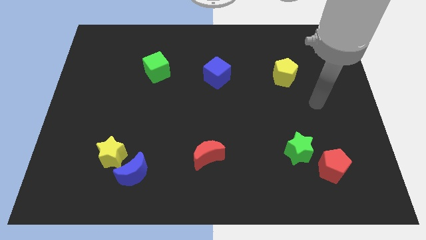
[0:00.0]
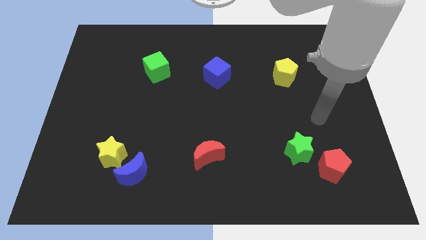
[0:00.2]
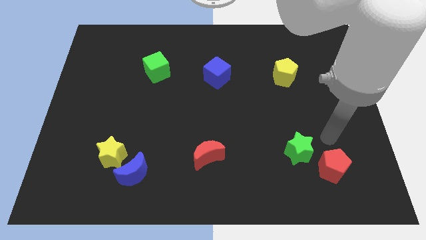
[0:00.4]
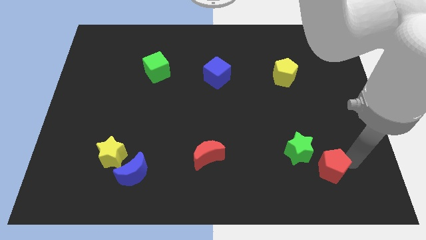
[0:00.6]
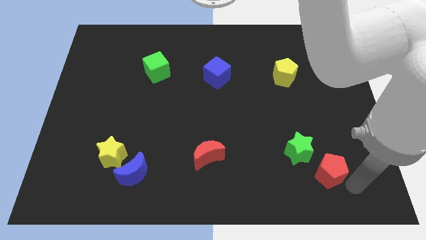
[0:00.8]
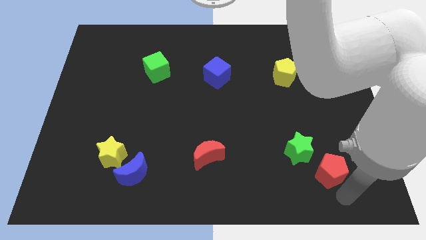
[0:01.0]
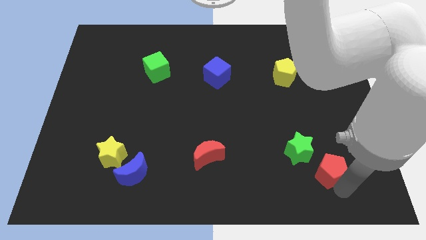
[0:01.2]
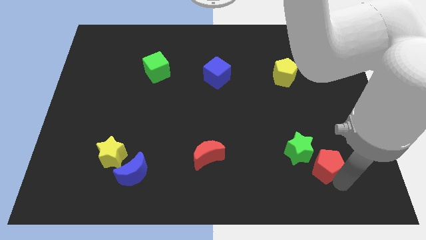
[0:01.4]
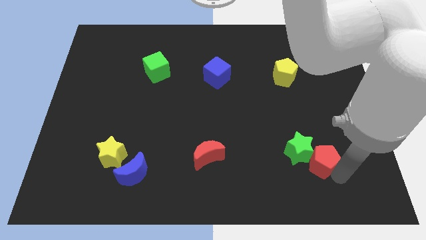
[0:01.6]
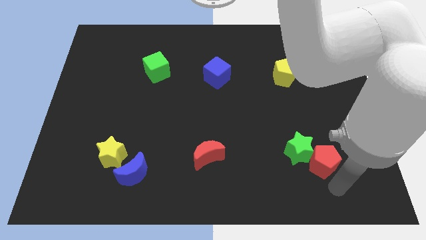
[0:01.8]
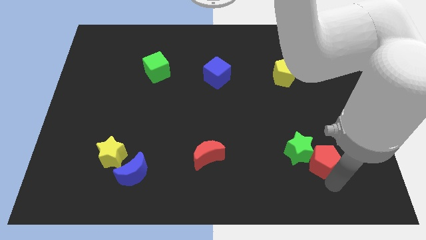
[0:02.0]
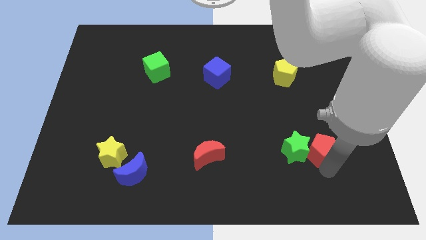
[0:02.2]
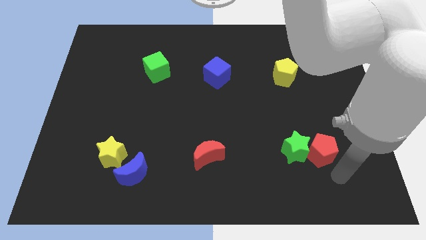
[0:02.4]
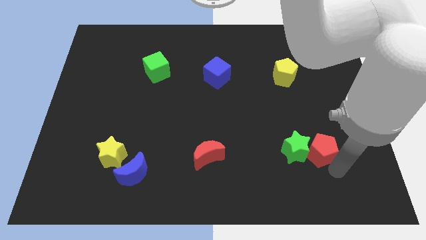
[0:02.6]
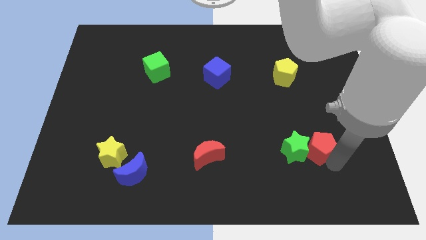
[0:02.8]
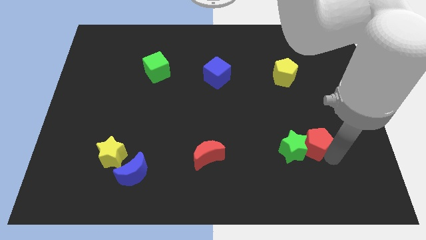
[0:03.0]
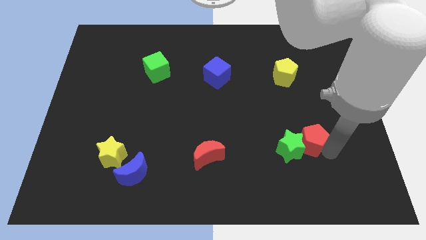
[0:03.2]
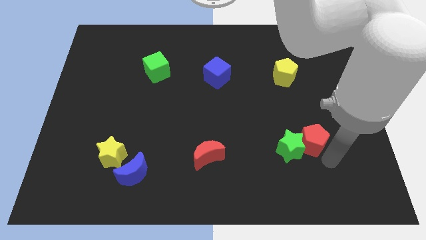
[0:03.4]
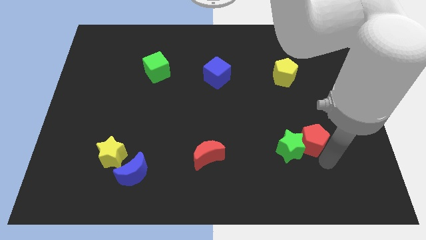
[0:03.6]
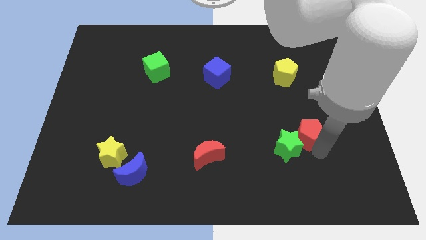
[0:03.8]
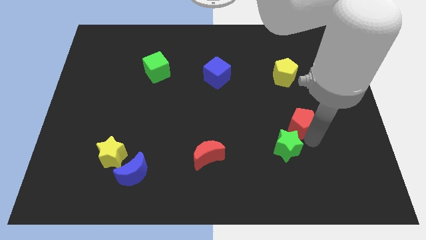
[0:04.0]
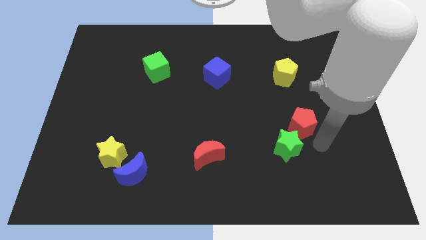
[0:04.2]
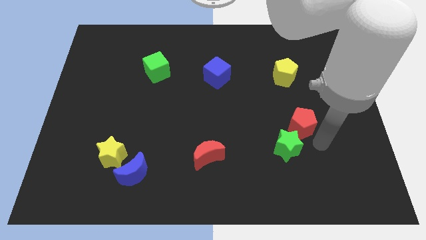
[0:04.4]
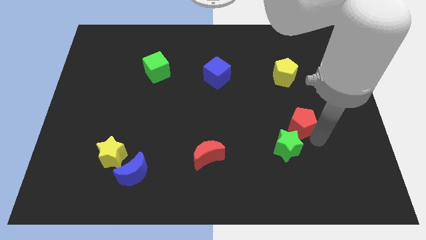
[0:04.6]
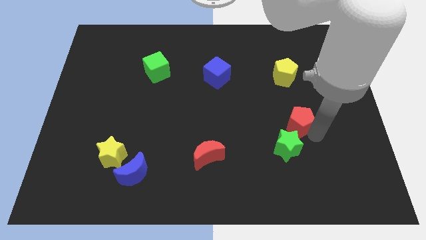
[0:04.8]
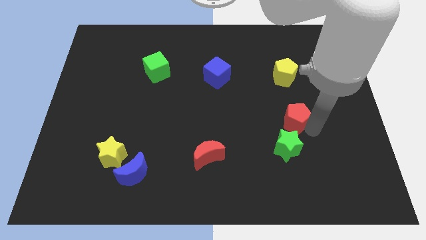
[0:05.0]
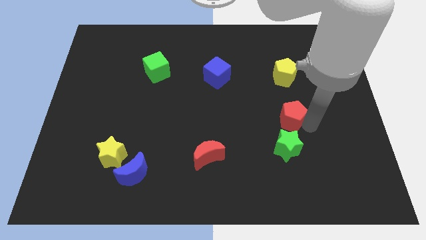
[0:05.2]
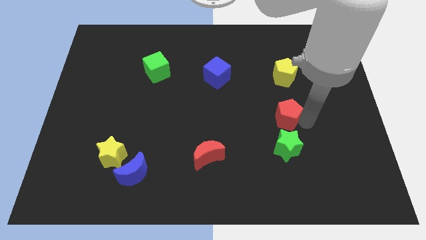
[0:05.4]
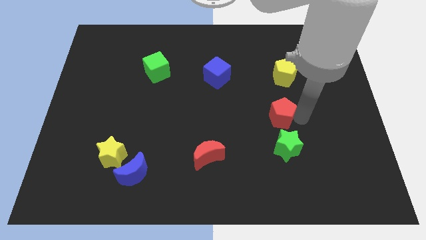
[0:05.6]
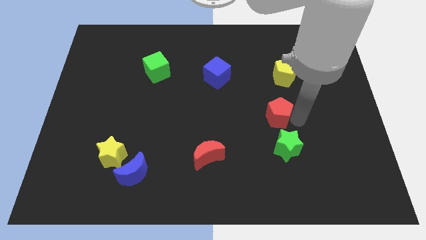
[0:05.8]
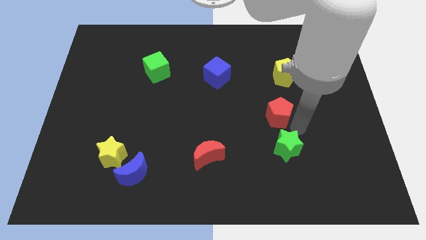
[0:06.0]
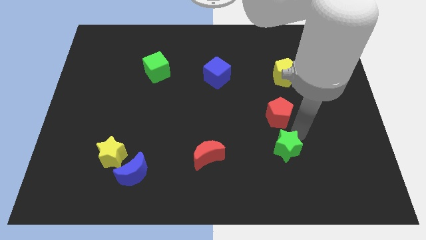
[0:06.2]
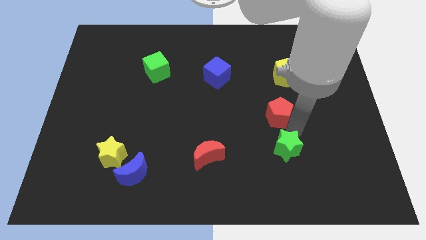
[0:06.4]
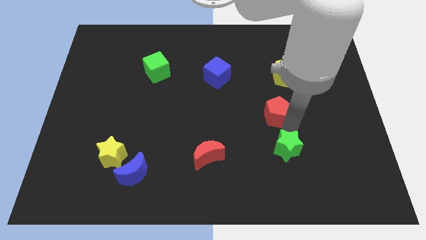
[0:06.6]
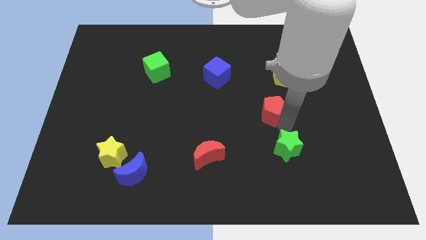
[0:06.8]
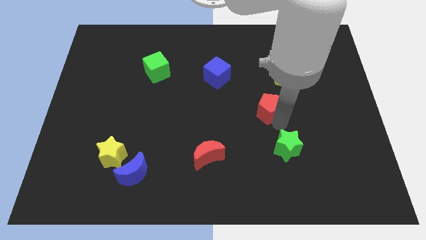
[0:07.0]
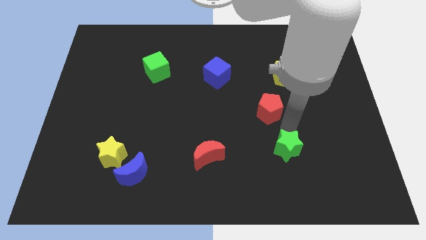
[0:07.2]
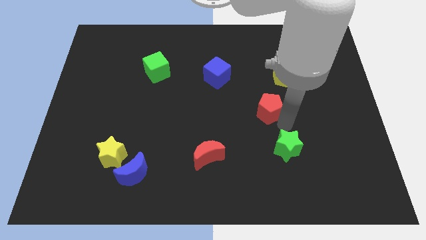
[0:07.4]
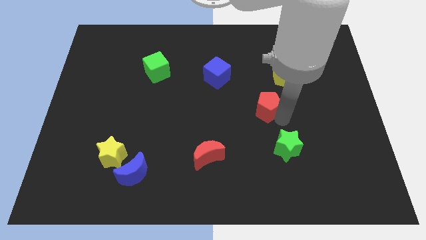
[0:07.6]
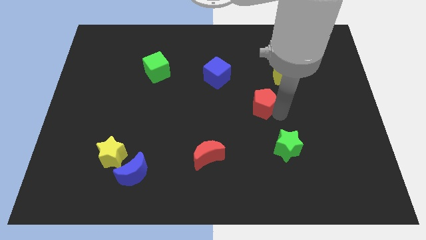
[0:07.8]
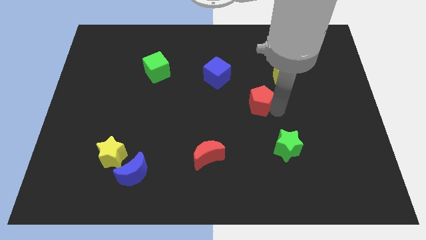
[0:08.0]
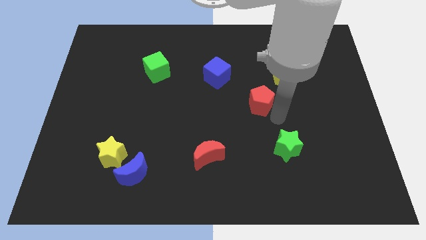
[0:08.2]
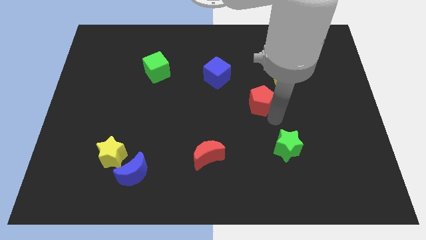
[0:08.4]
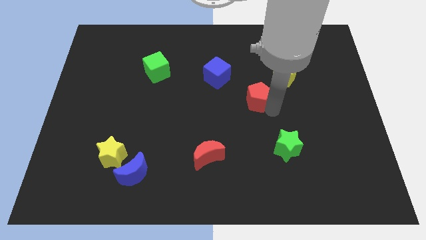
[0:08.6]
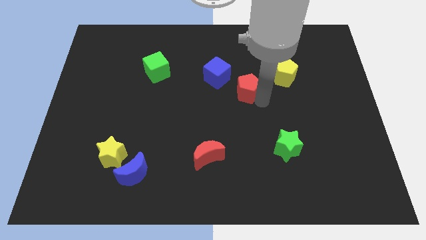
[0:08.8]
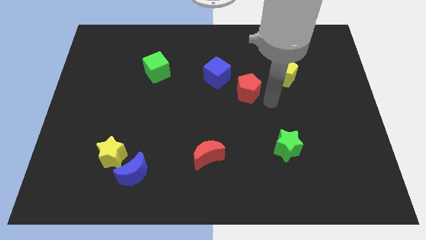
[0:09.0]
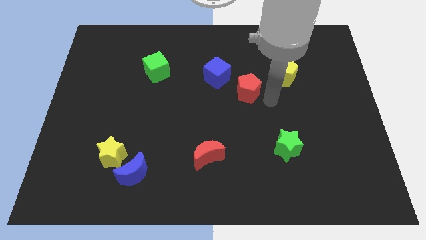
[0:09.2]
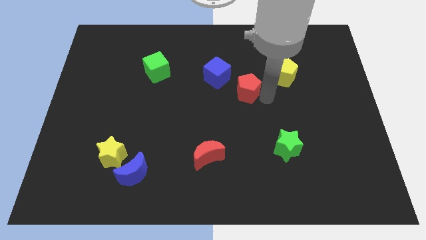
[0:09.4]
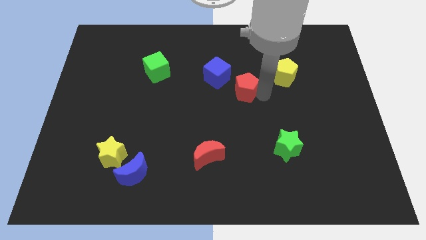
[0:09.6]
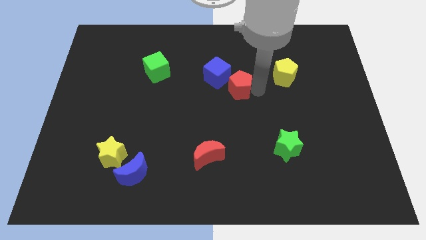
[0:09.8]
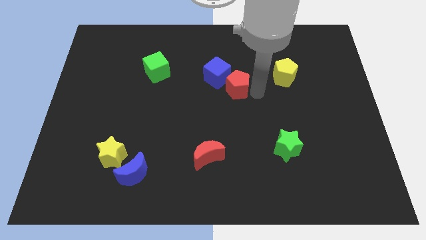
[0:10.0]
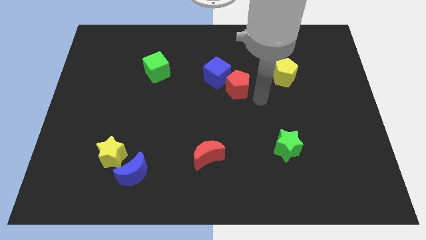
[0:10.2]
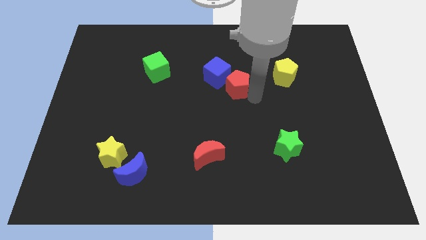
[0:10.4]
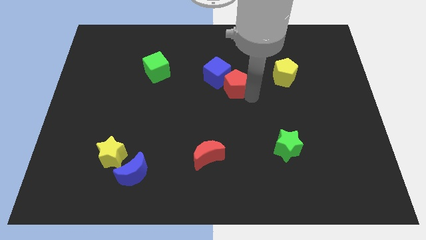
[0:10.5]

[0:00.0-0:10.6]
put the red pentagon next to the blue cube

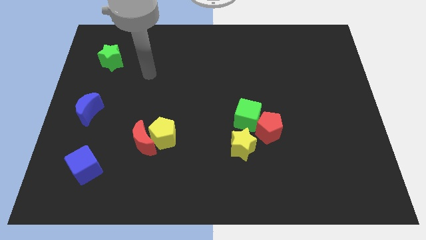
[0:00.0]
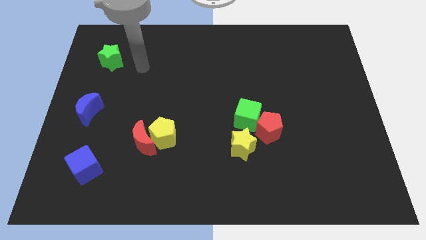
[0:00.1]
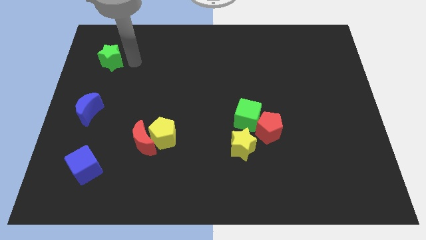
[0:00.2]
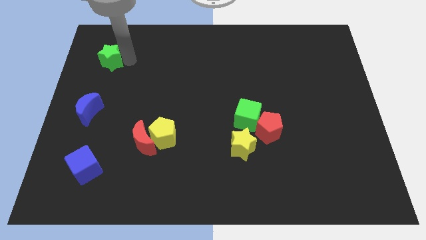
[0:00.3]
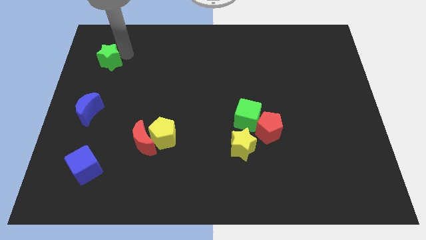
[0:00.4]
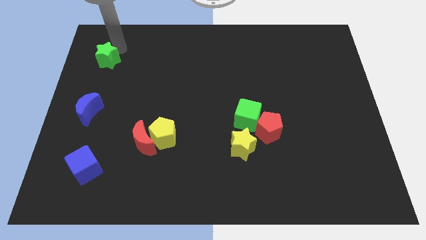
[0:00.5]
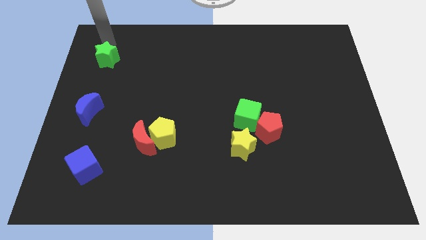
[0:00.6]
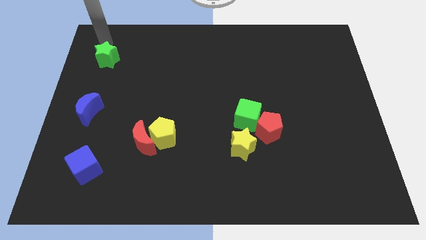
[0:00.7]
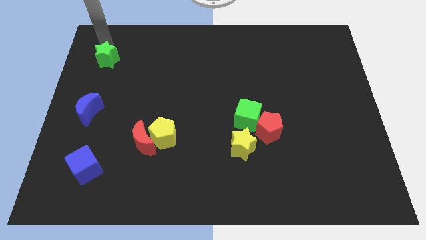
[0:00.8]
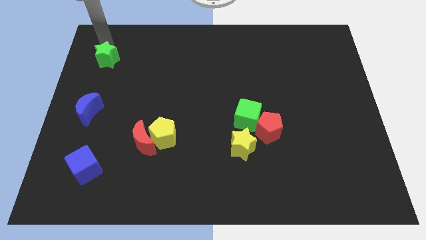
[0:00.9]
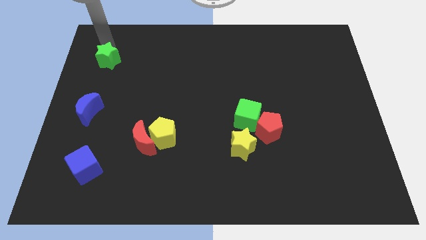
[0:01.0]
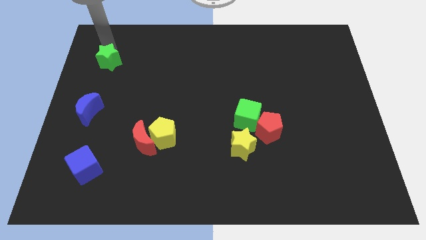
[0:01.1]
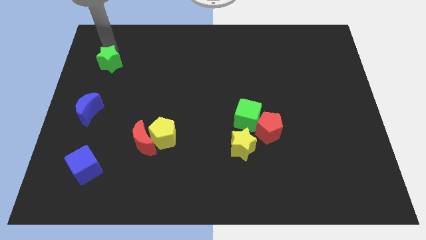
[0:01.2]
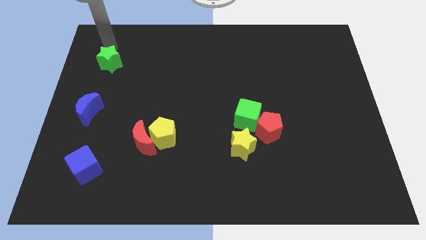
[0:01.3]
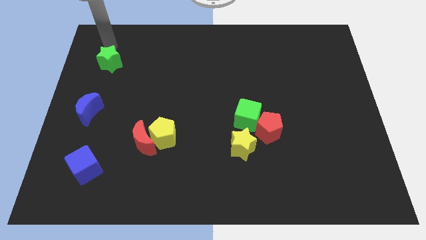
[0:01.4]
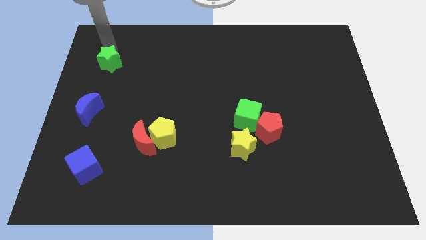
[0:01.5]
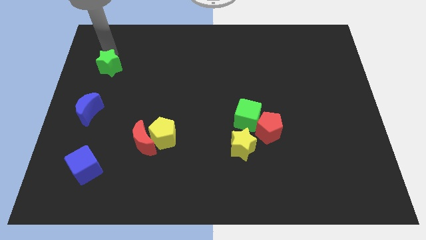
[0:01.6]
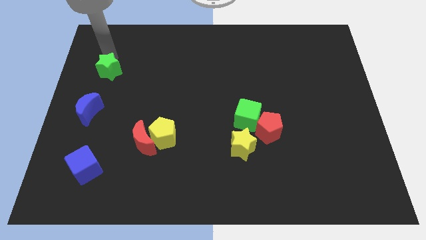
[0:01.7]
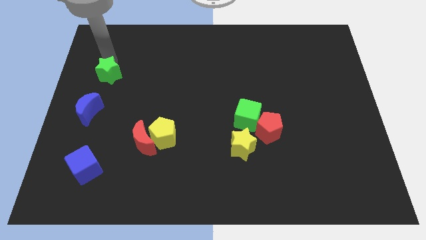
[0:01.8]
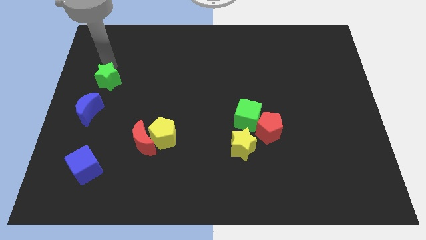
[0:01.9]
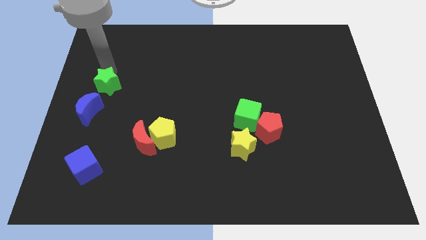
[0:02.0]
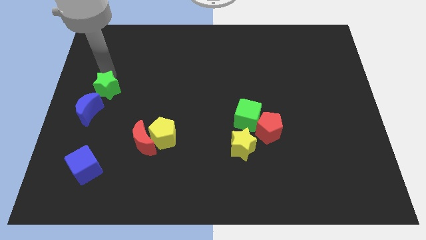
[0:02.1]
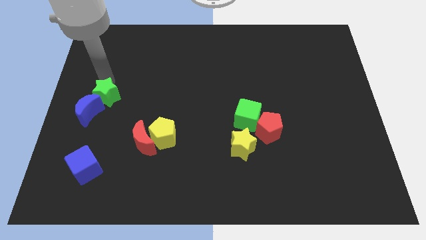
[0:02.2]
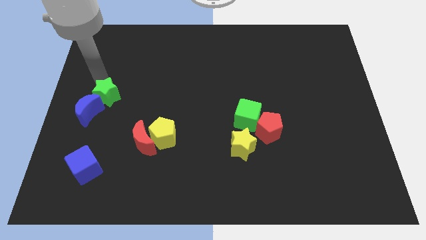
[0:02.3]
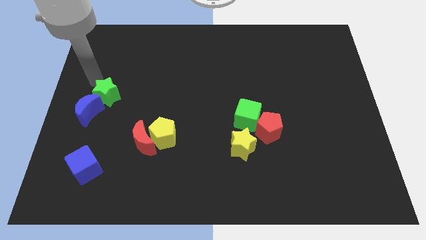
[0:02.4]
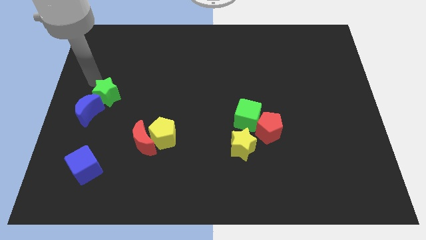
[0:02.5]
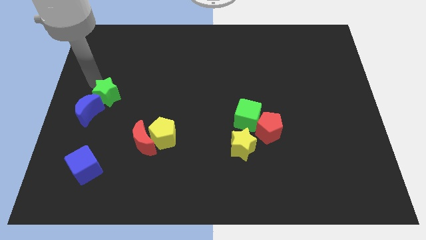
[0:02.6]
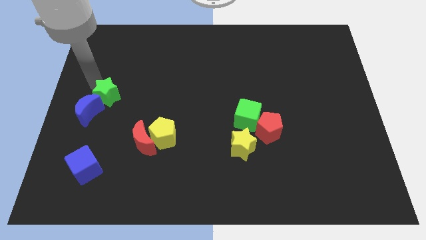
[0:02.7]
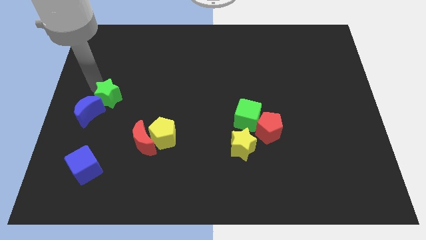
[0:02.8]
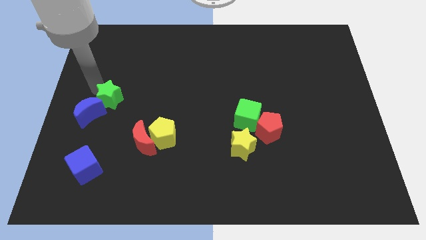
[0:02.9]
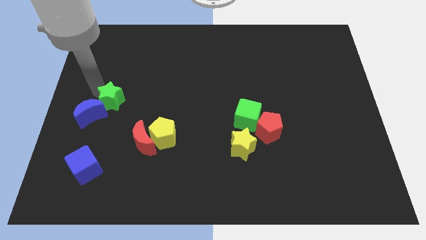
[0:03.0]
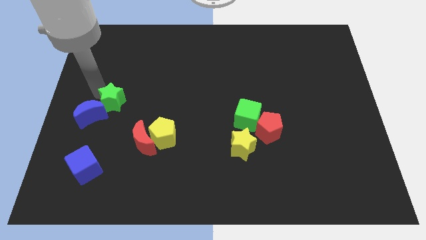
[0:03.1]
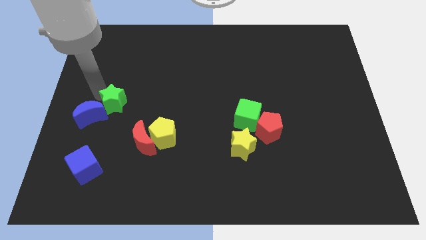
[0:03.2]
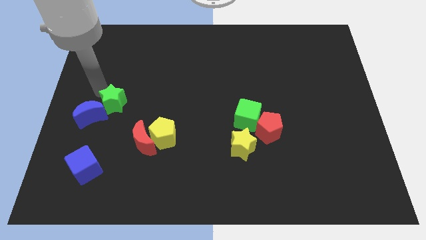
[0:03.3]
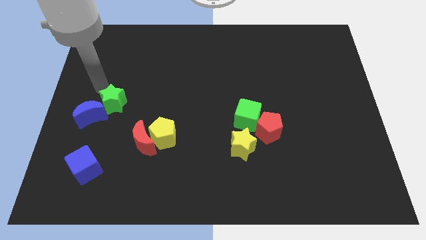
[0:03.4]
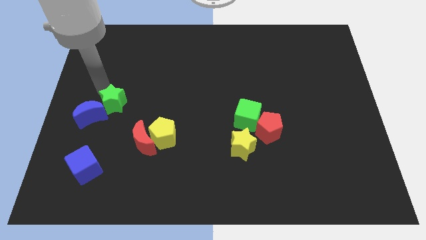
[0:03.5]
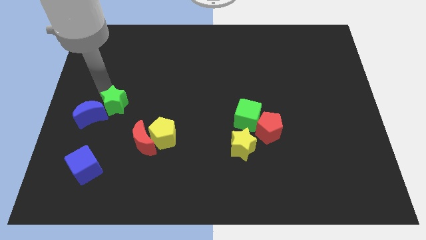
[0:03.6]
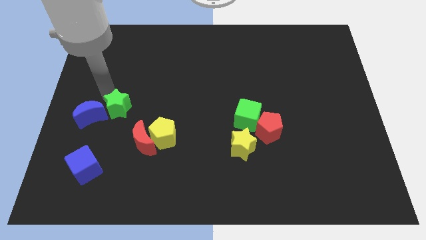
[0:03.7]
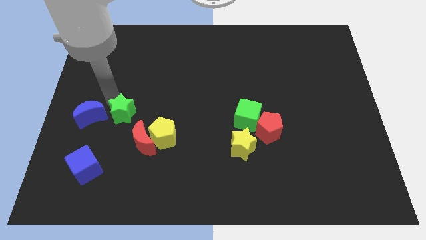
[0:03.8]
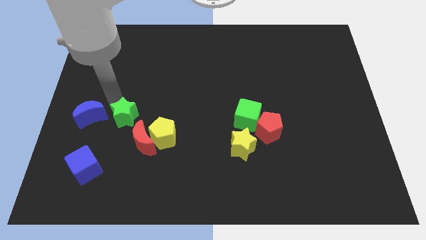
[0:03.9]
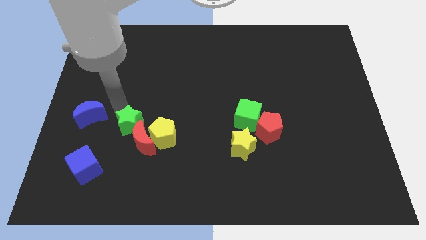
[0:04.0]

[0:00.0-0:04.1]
put the green star next to the red moon
